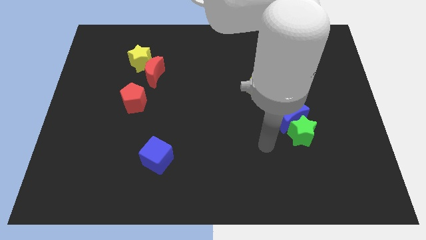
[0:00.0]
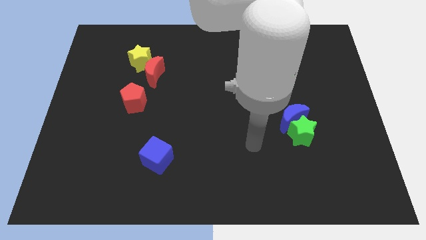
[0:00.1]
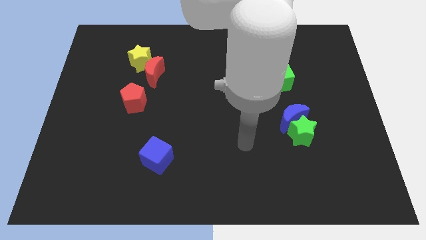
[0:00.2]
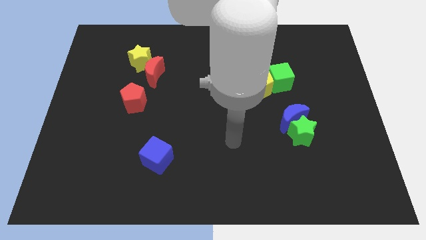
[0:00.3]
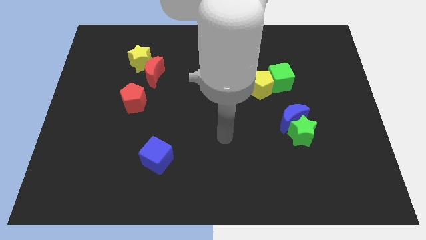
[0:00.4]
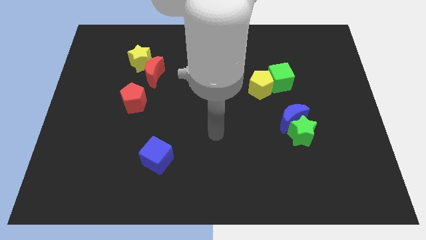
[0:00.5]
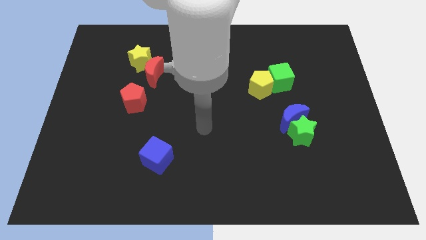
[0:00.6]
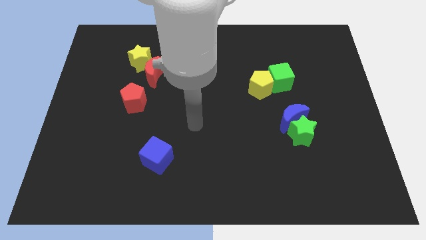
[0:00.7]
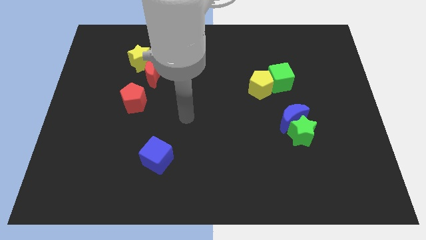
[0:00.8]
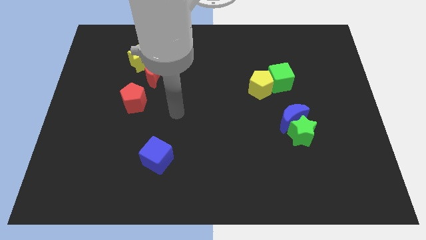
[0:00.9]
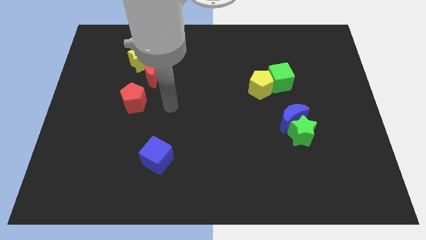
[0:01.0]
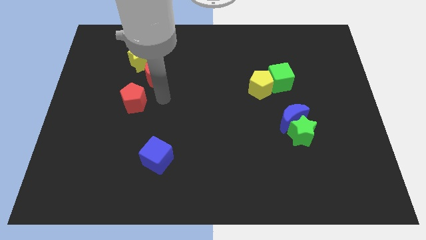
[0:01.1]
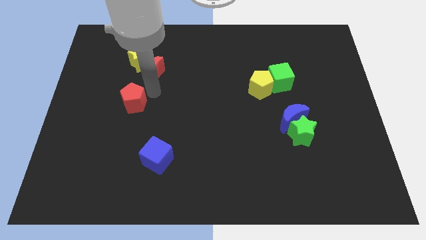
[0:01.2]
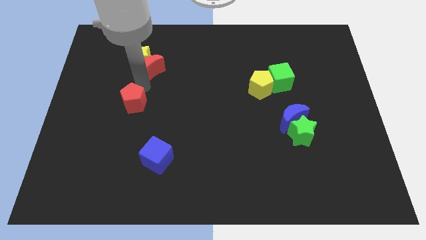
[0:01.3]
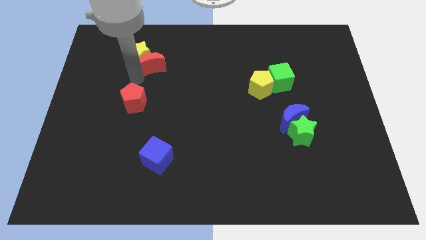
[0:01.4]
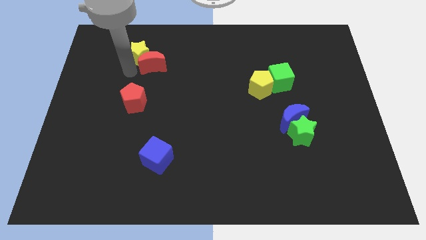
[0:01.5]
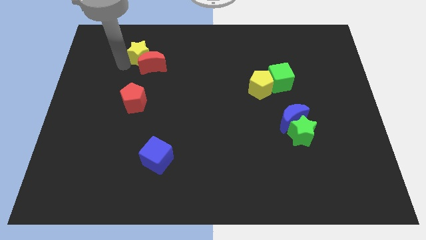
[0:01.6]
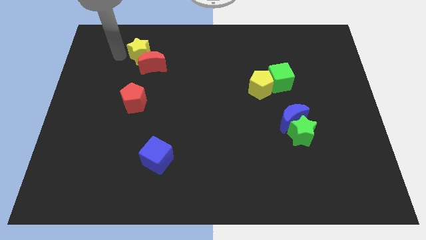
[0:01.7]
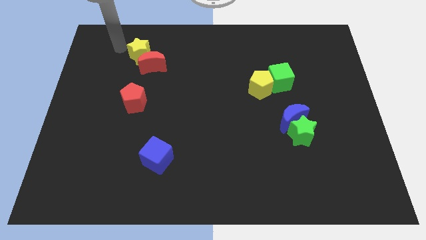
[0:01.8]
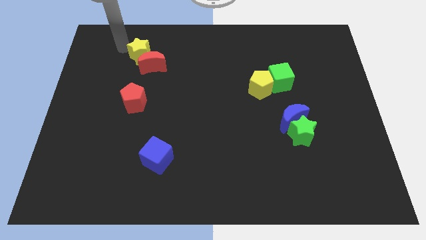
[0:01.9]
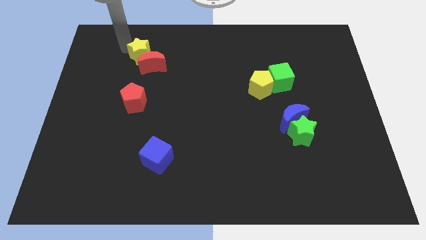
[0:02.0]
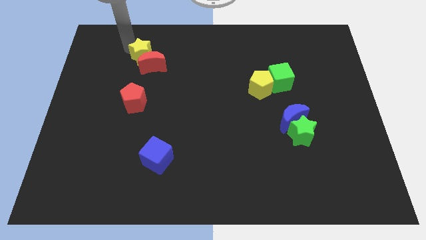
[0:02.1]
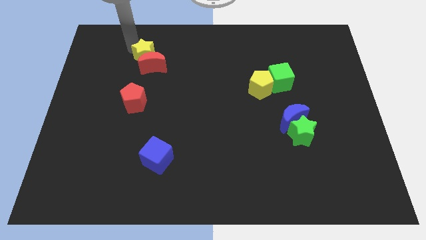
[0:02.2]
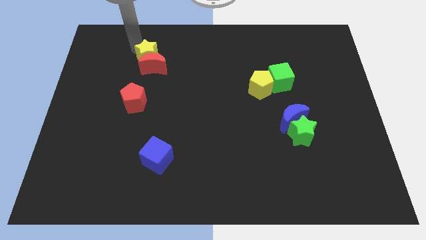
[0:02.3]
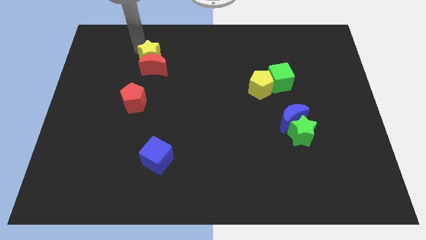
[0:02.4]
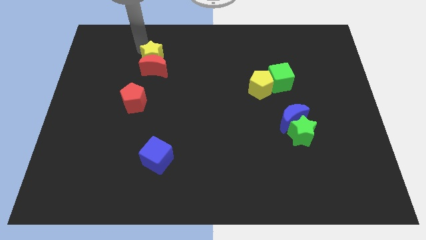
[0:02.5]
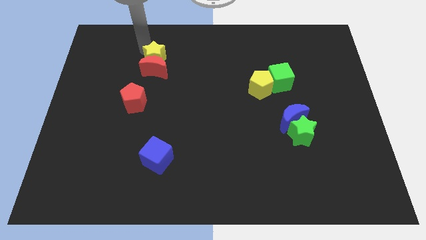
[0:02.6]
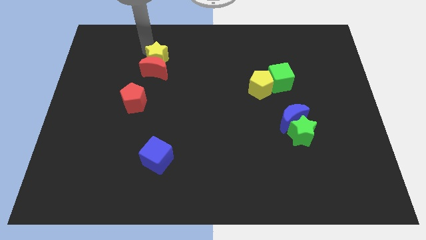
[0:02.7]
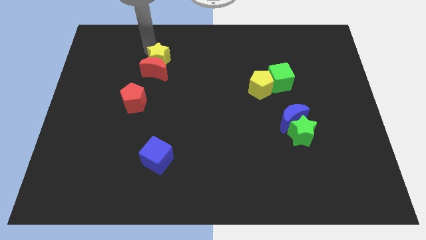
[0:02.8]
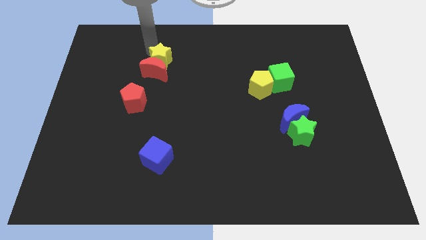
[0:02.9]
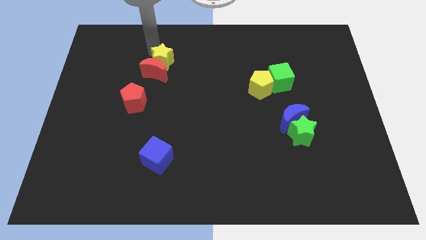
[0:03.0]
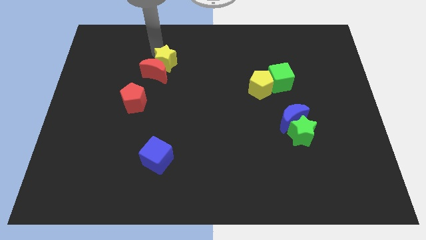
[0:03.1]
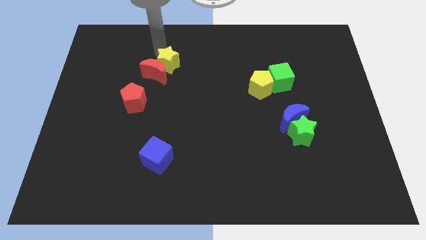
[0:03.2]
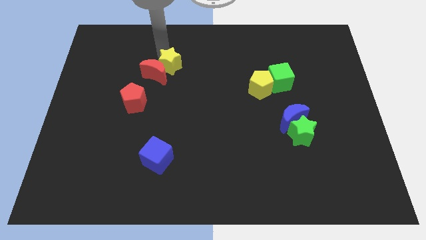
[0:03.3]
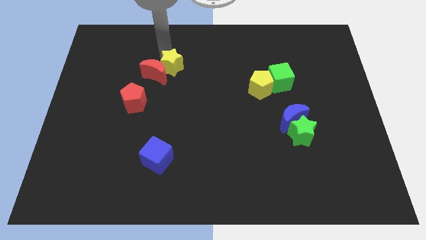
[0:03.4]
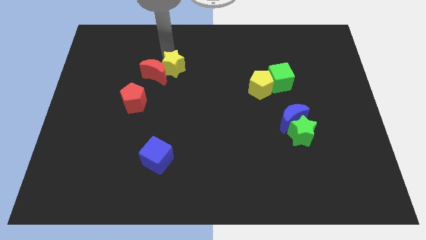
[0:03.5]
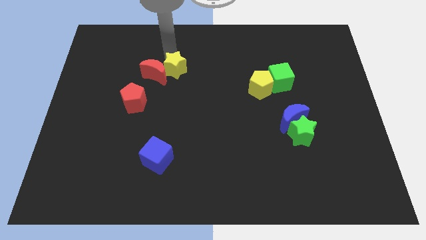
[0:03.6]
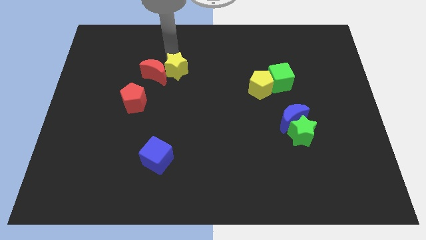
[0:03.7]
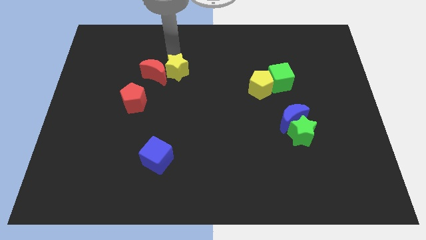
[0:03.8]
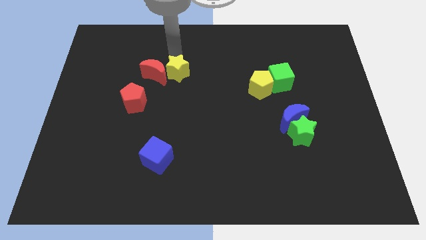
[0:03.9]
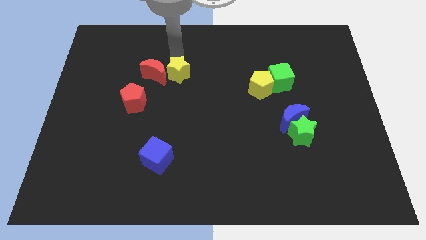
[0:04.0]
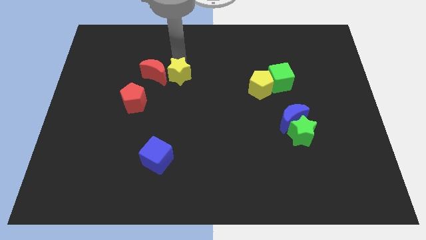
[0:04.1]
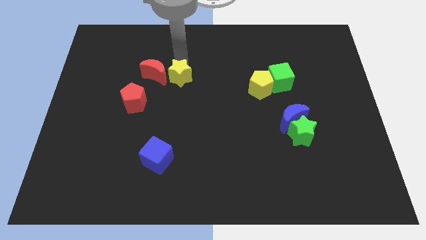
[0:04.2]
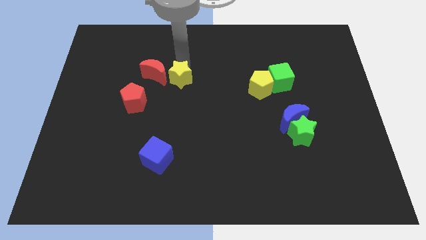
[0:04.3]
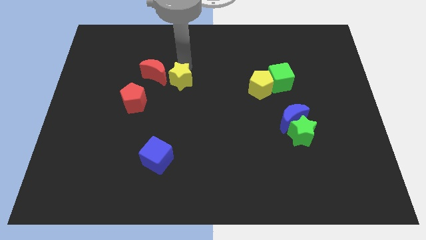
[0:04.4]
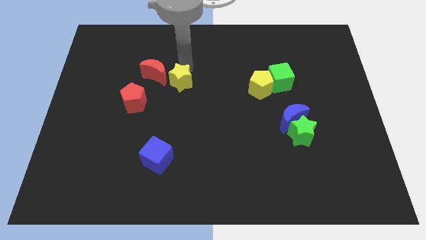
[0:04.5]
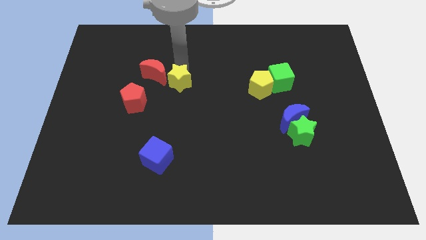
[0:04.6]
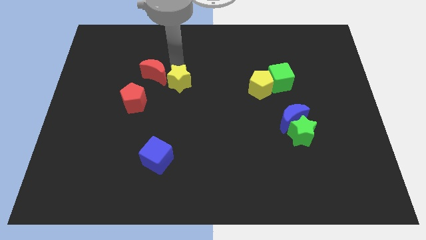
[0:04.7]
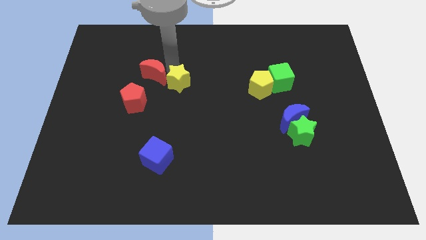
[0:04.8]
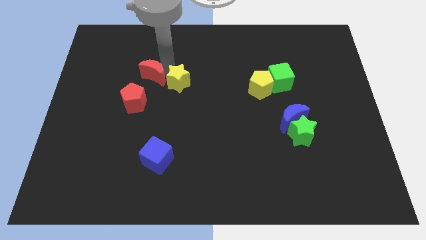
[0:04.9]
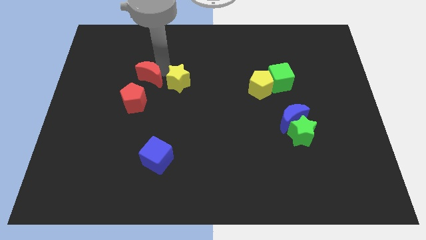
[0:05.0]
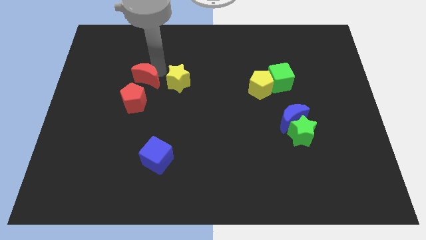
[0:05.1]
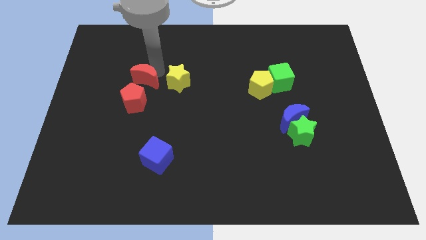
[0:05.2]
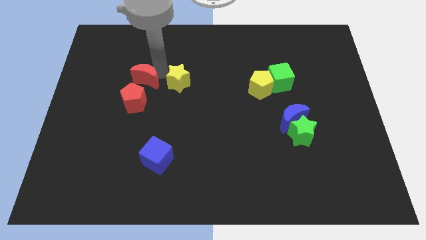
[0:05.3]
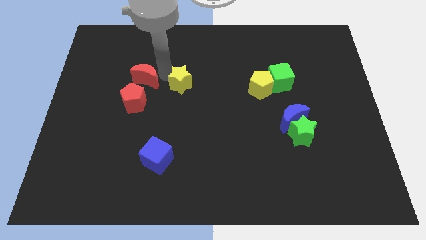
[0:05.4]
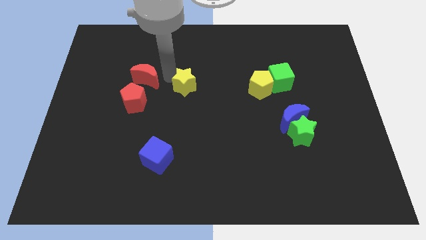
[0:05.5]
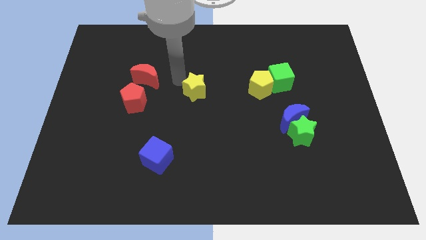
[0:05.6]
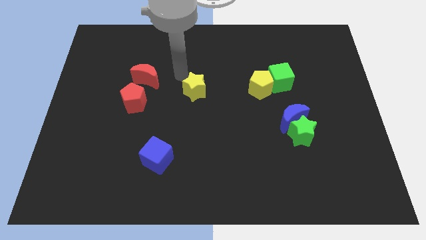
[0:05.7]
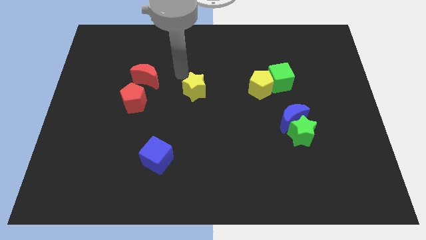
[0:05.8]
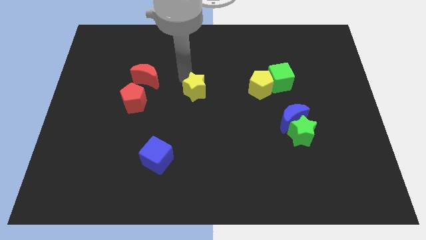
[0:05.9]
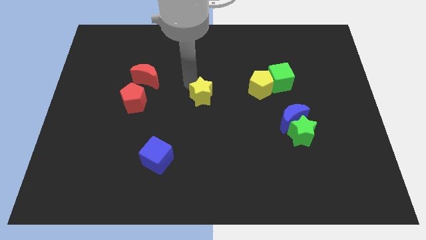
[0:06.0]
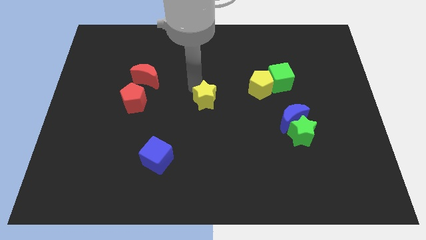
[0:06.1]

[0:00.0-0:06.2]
slide the yellow star diagonally down and right

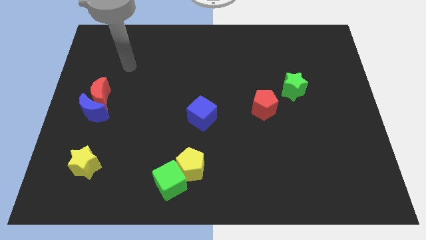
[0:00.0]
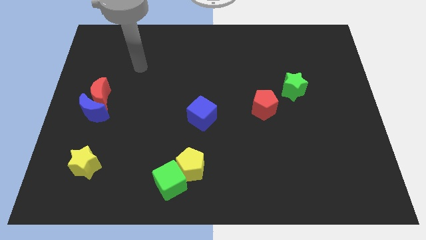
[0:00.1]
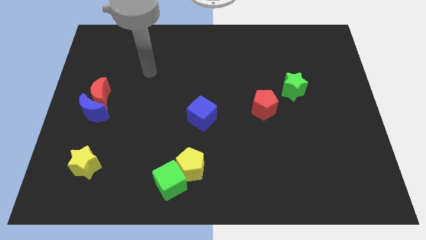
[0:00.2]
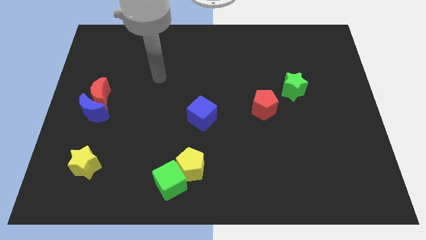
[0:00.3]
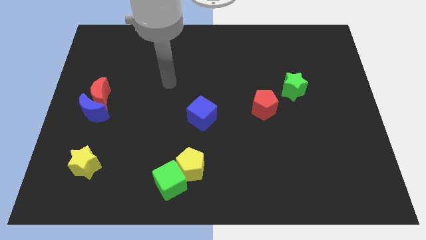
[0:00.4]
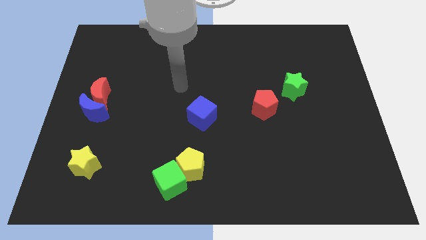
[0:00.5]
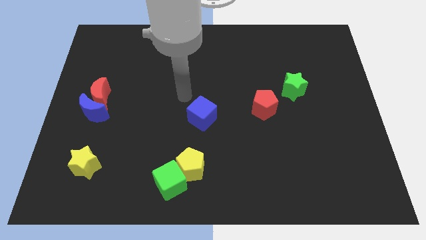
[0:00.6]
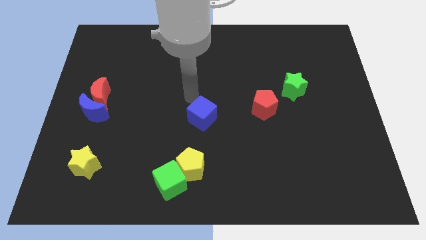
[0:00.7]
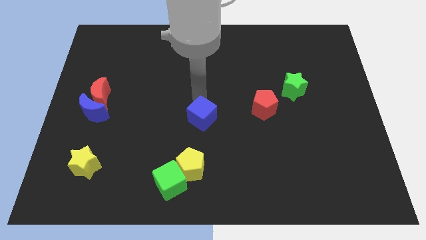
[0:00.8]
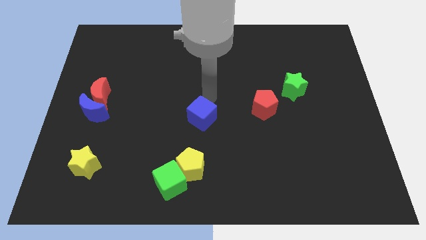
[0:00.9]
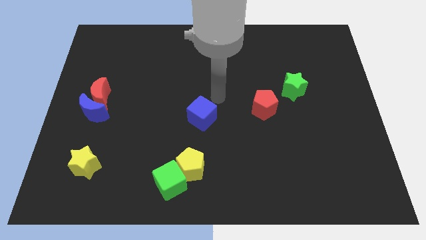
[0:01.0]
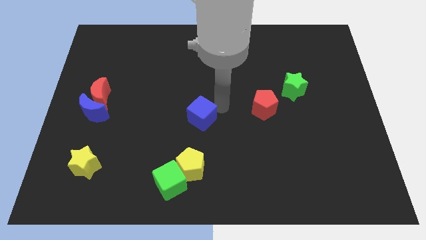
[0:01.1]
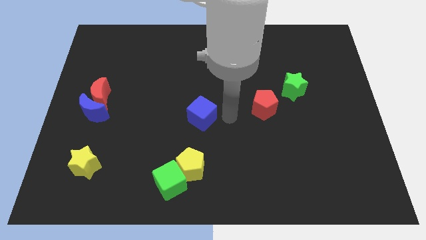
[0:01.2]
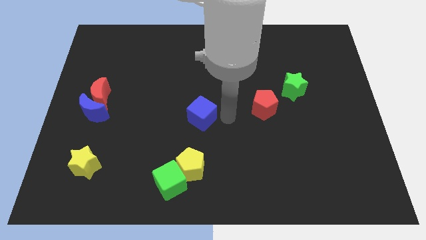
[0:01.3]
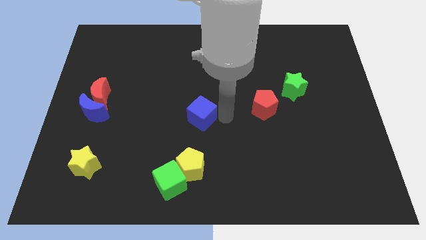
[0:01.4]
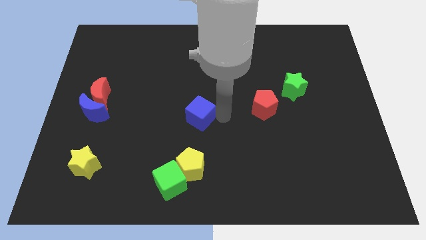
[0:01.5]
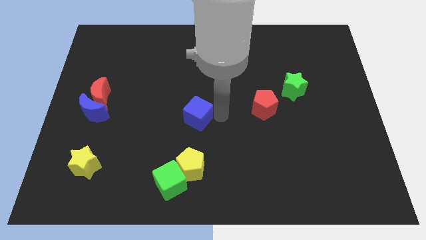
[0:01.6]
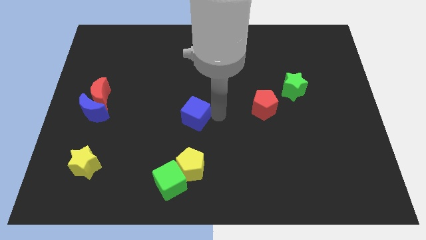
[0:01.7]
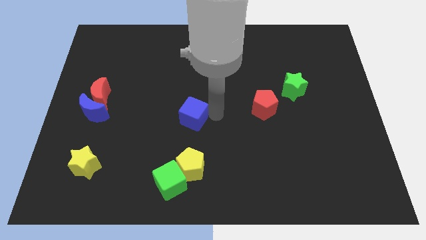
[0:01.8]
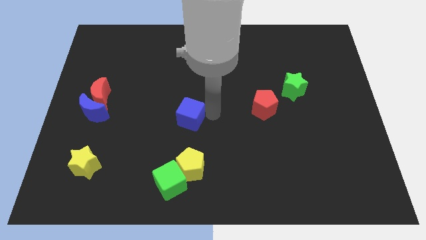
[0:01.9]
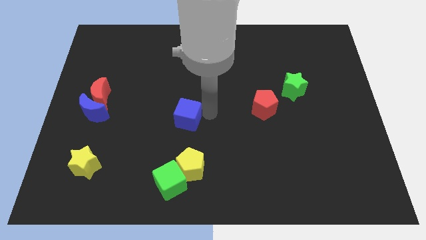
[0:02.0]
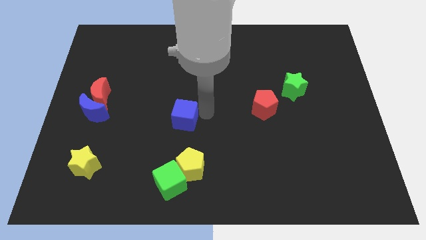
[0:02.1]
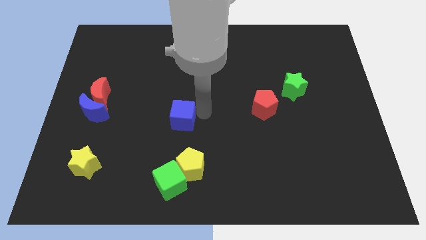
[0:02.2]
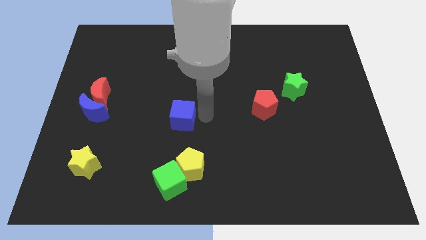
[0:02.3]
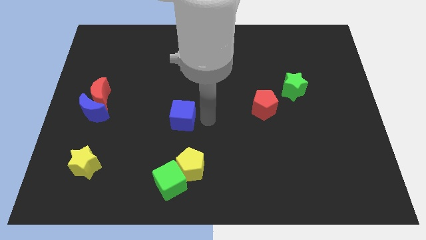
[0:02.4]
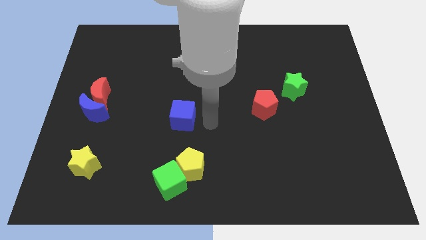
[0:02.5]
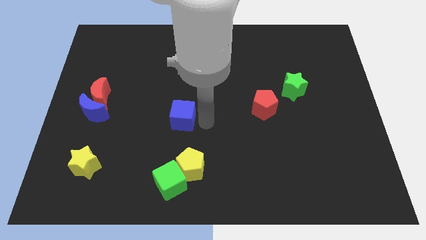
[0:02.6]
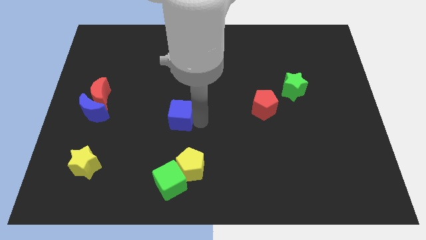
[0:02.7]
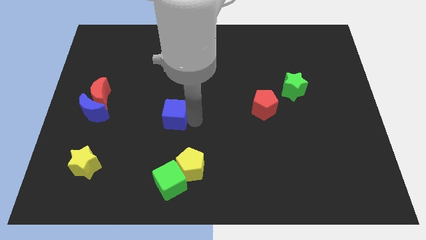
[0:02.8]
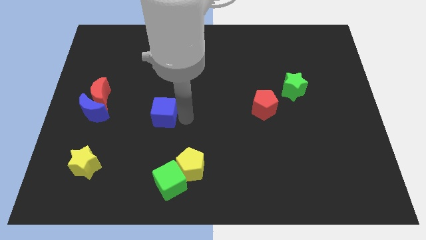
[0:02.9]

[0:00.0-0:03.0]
slightly slide the blue cube left
